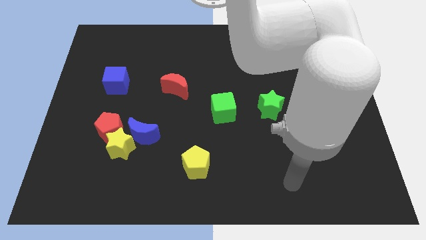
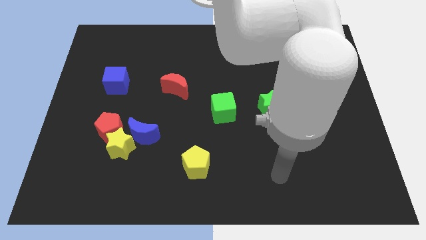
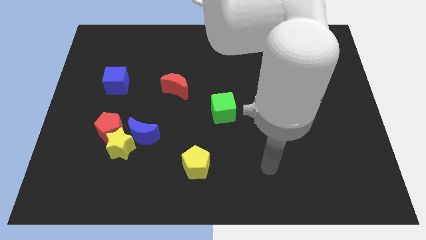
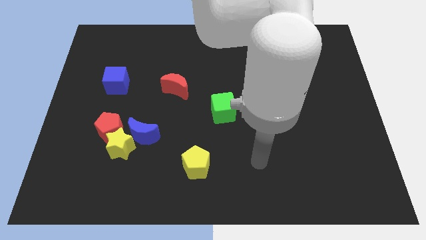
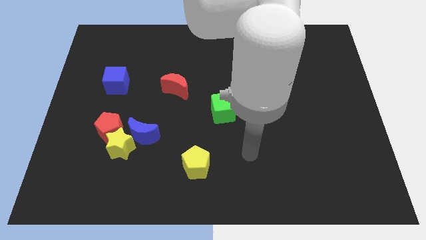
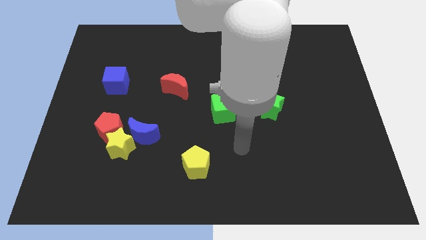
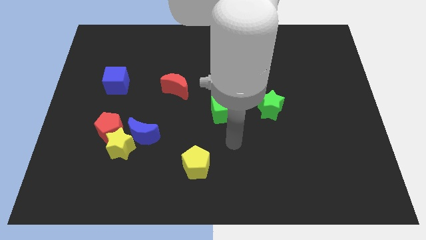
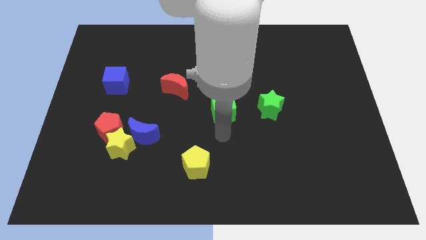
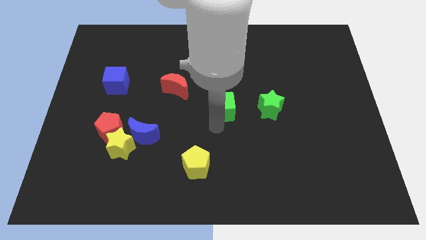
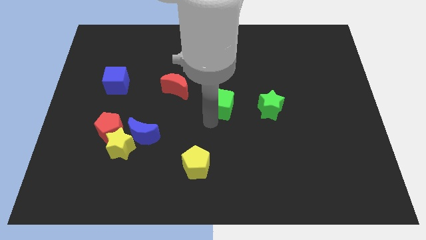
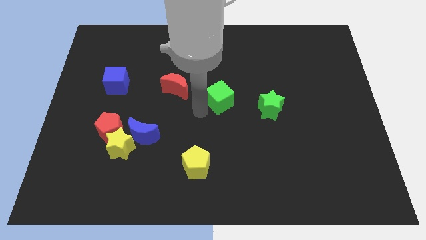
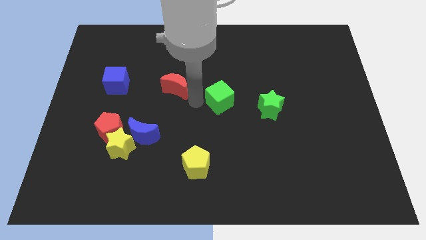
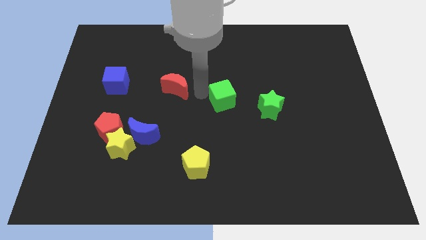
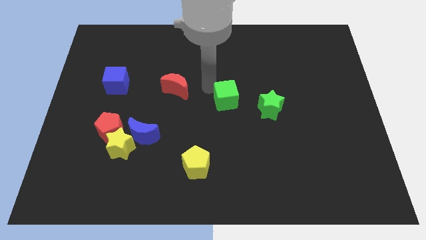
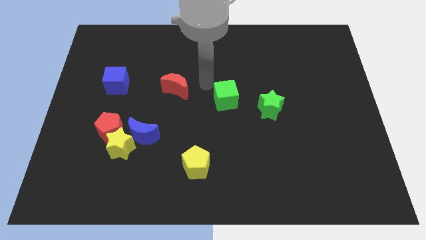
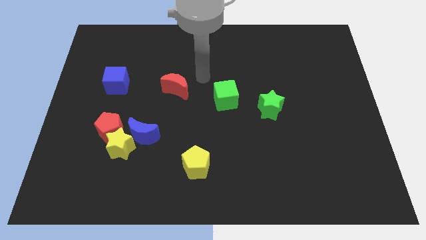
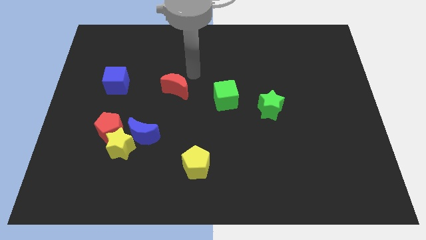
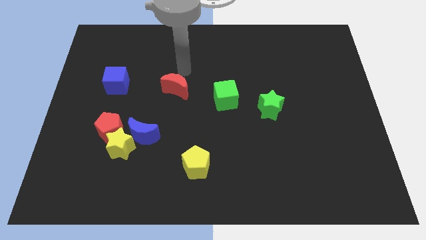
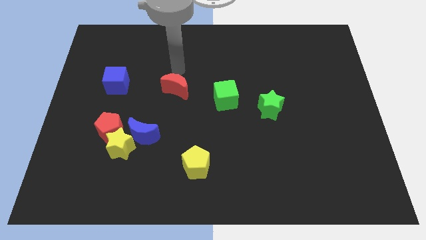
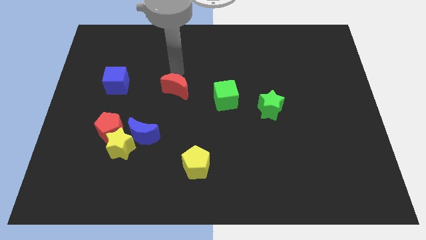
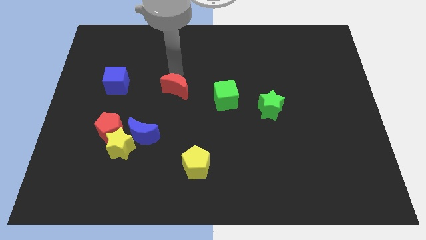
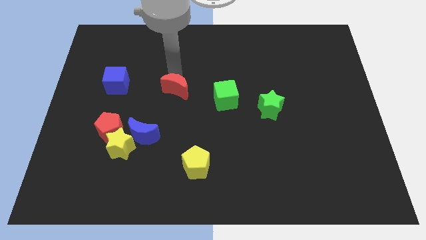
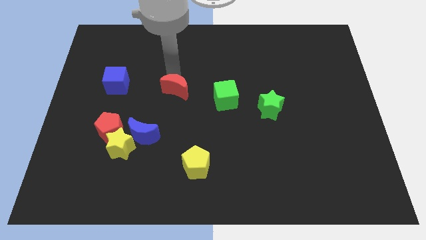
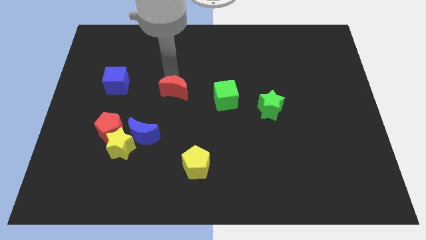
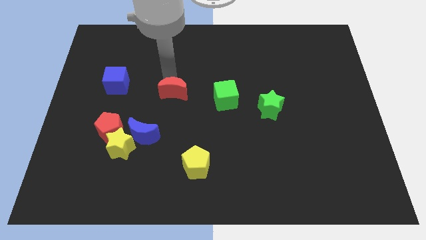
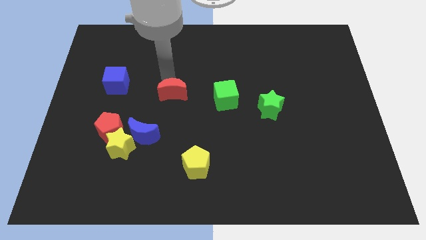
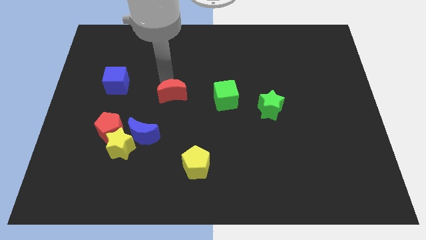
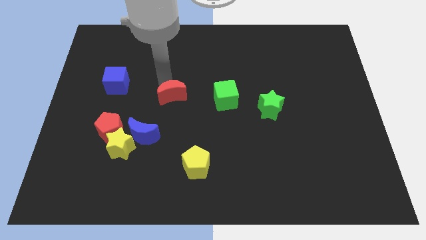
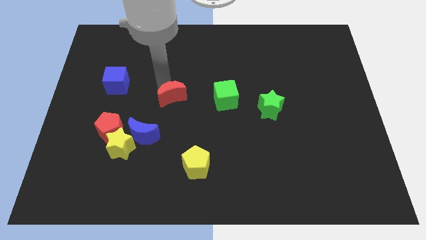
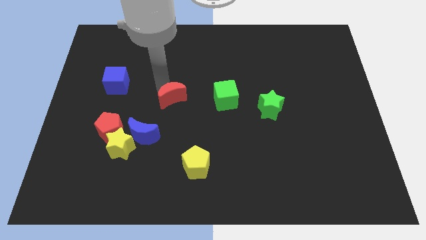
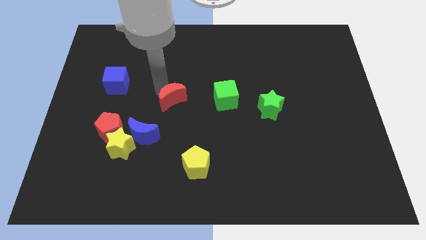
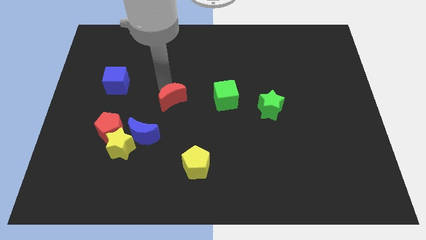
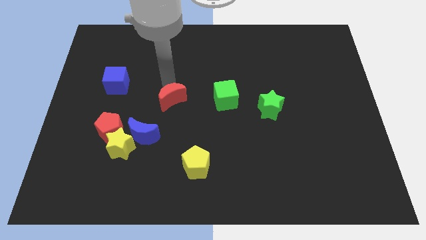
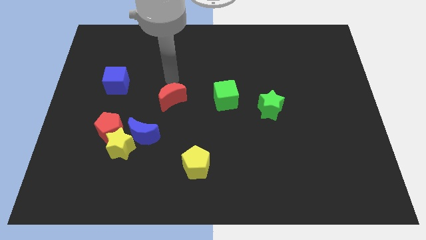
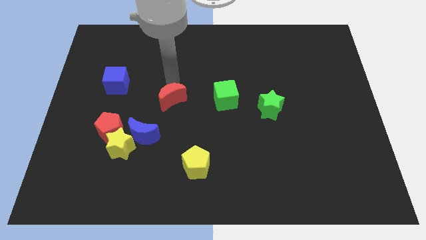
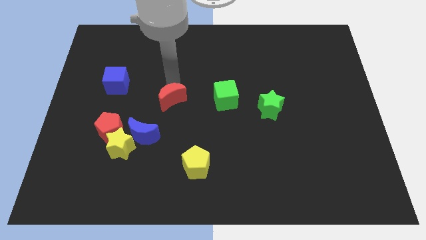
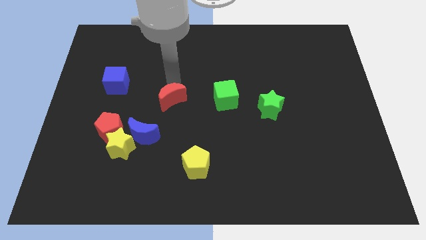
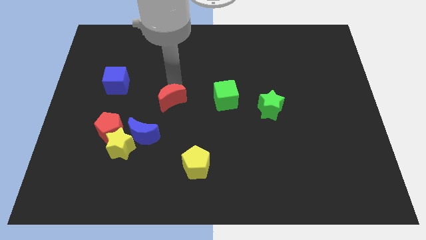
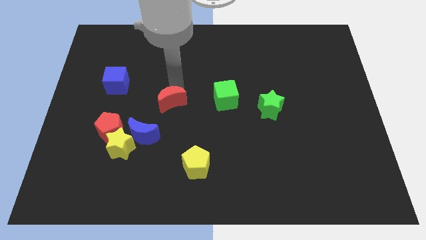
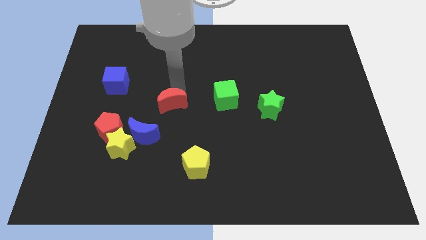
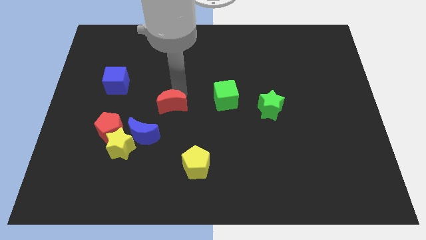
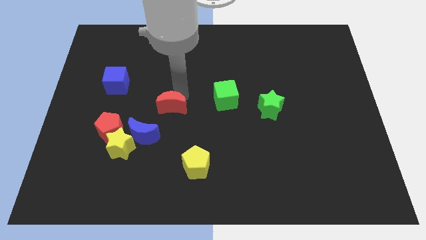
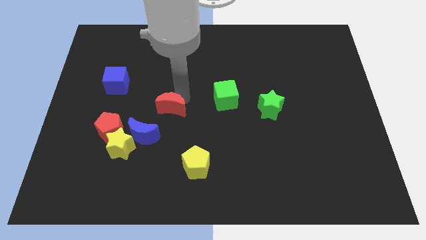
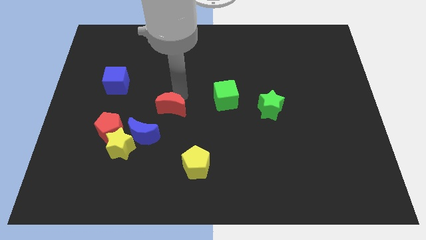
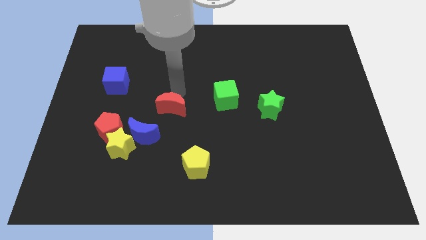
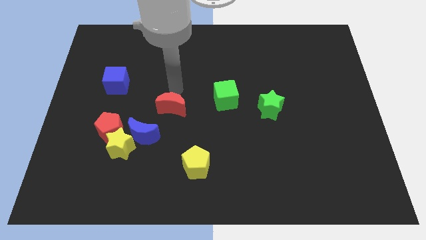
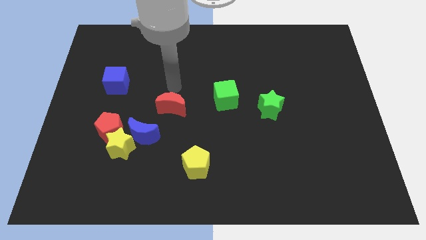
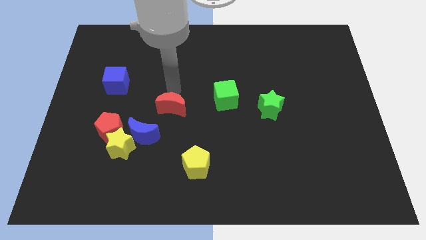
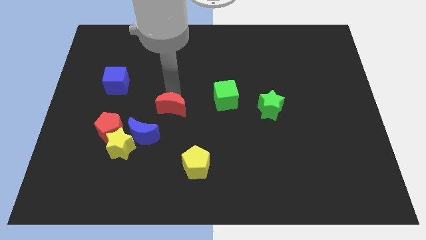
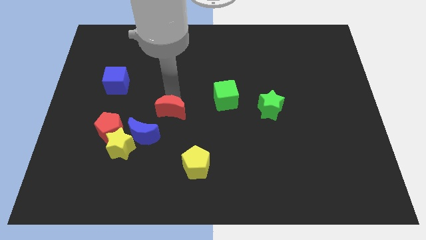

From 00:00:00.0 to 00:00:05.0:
push the red moon somewhat down

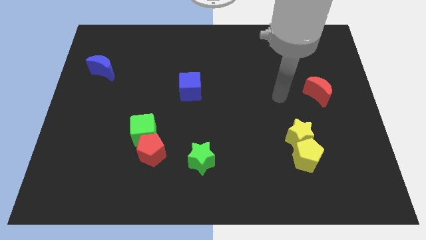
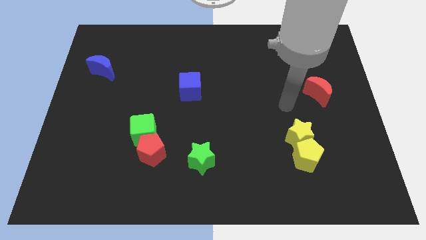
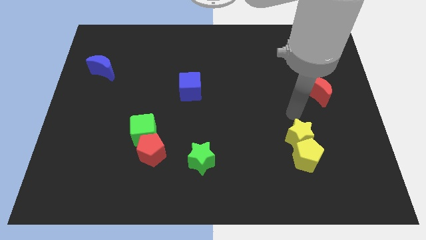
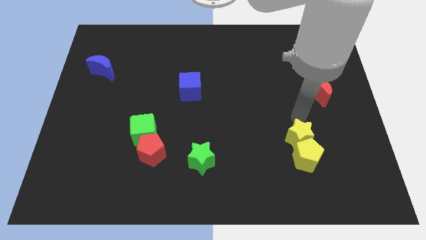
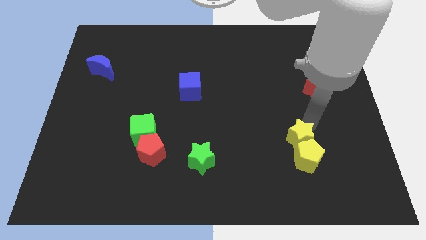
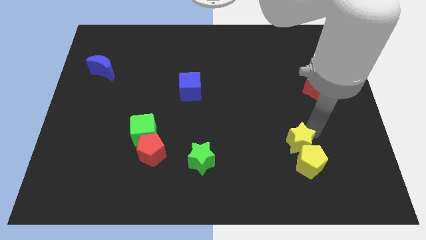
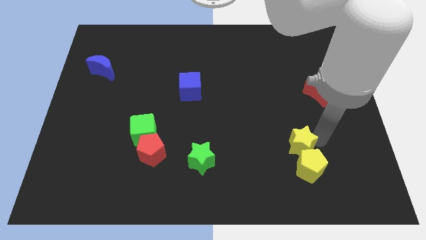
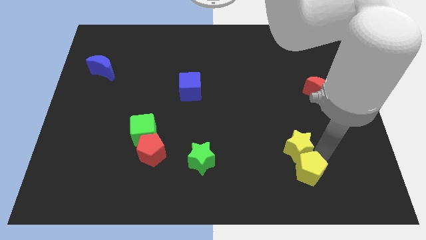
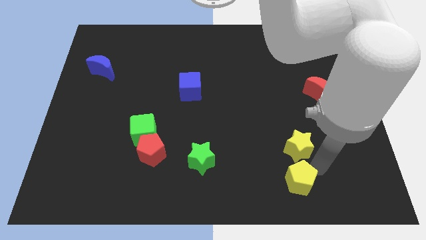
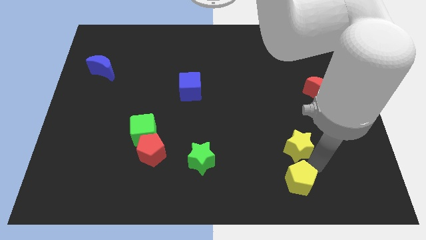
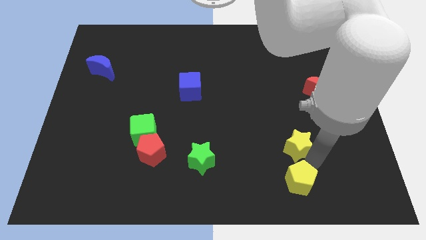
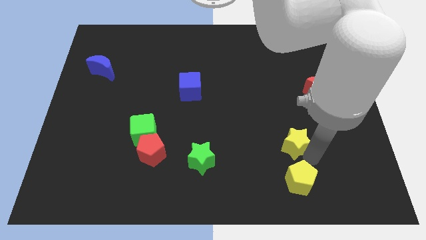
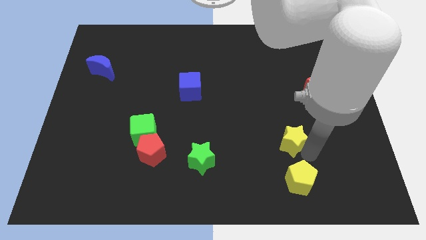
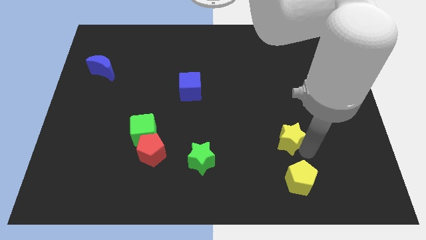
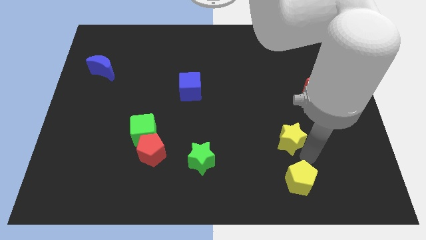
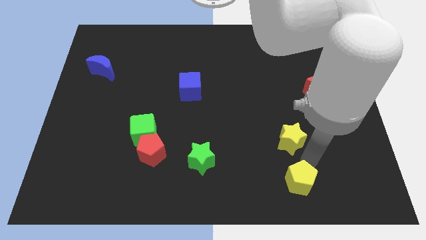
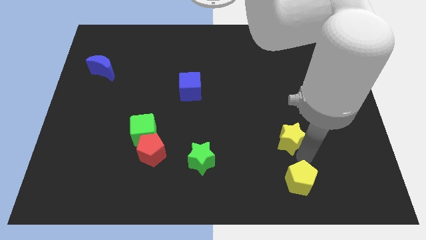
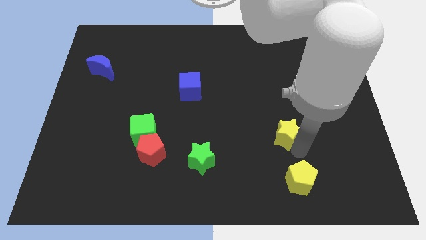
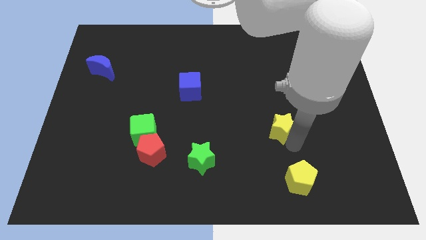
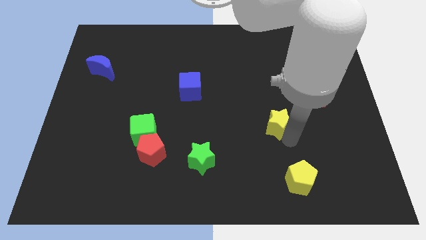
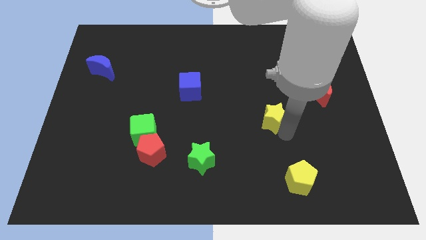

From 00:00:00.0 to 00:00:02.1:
slide the yellow star a bit upwards and to the left diagonally

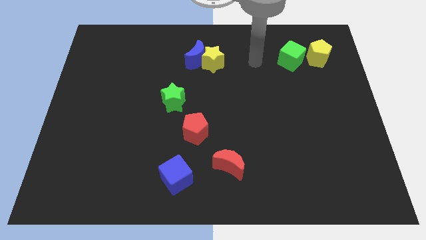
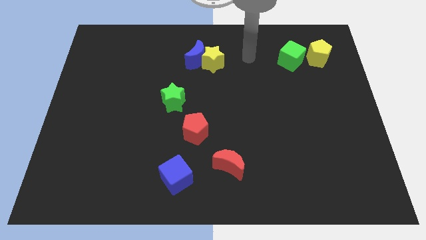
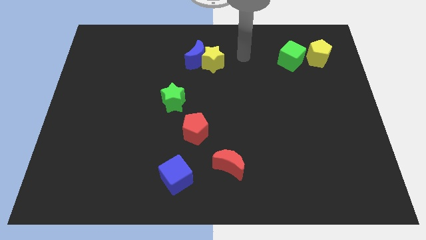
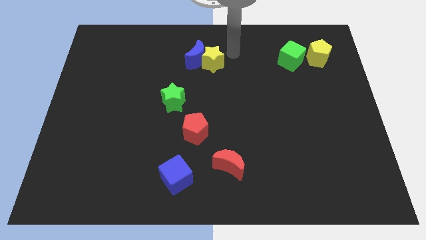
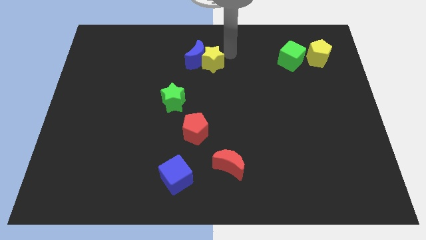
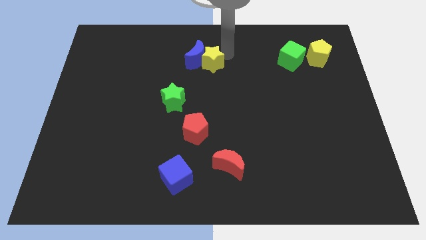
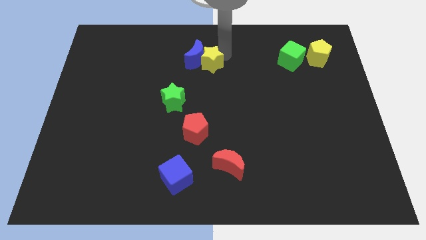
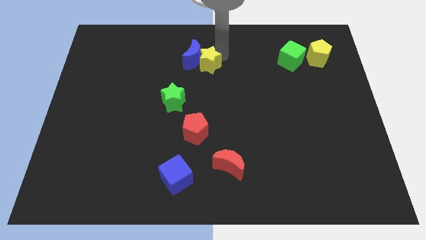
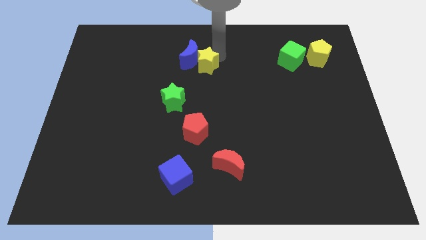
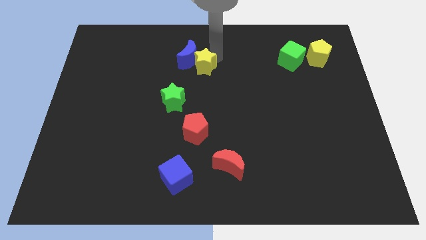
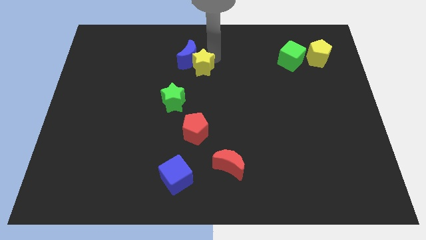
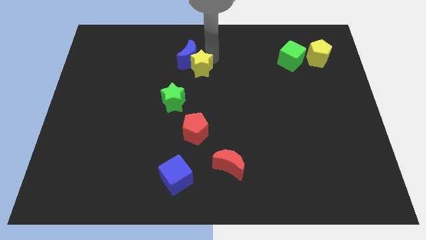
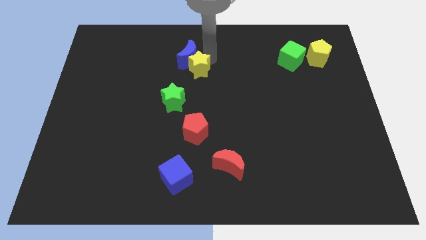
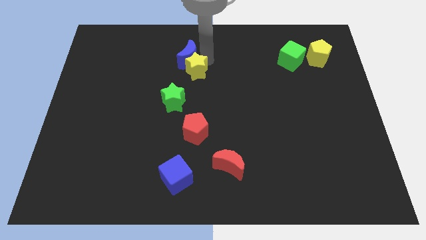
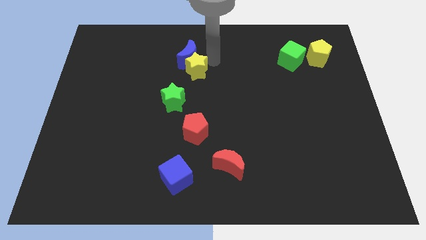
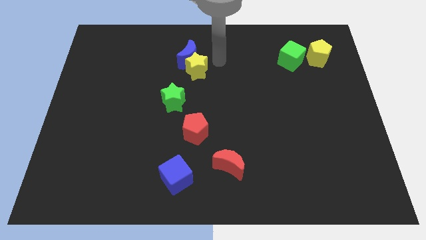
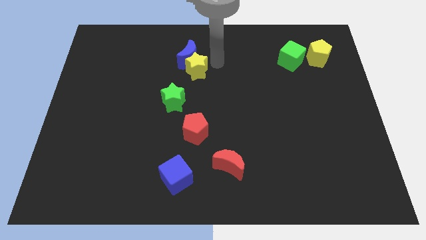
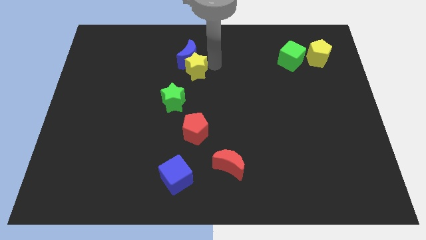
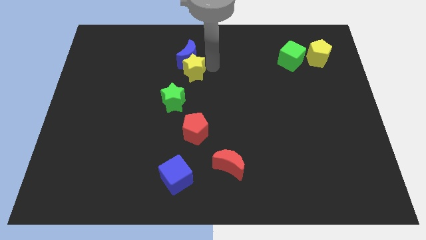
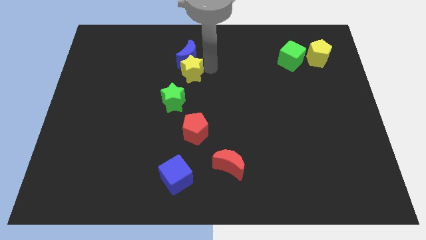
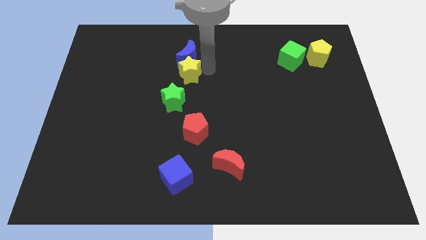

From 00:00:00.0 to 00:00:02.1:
move the yellow star a bit diagonally down and left
